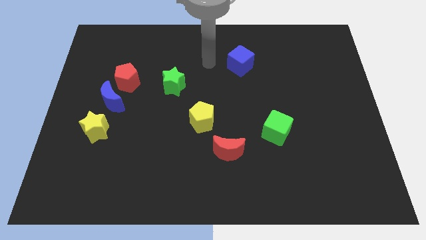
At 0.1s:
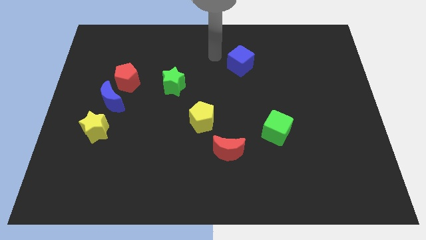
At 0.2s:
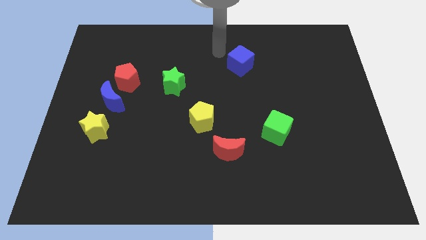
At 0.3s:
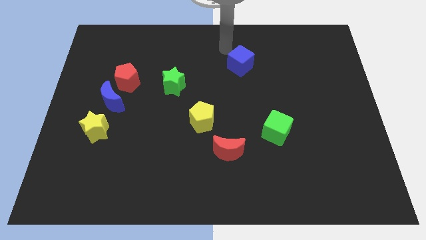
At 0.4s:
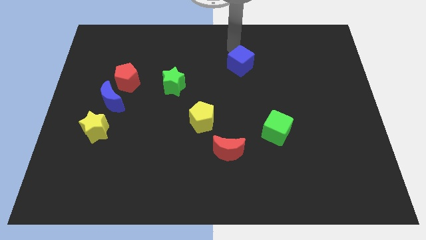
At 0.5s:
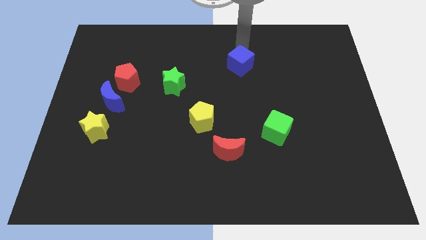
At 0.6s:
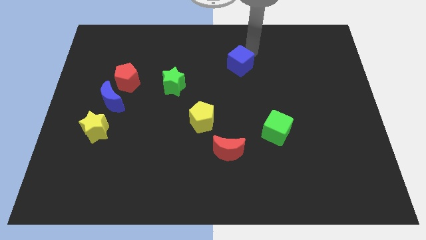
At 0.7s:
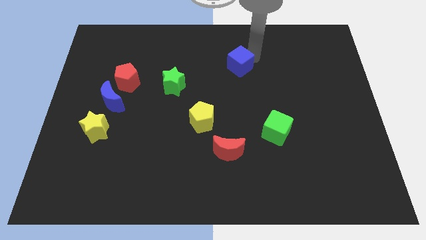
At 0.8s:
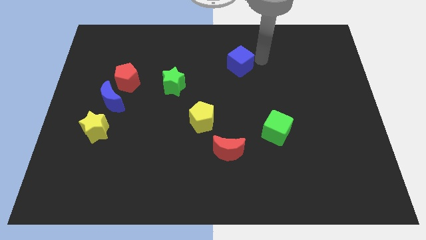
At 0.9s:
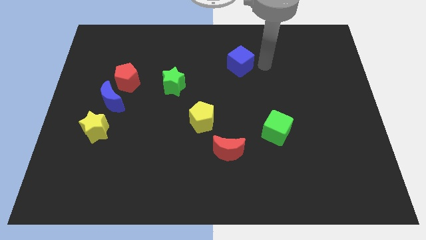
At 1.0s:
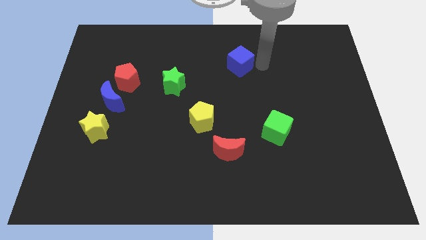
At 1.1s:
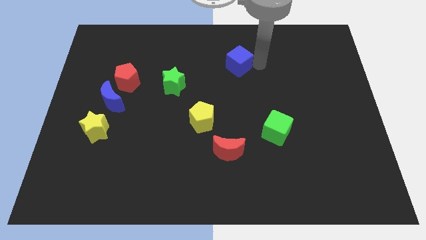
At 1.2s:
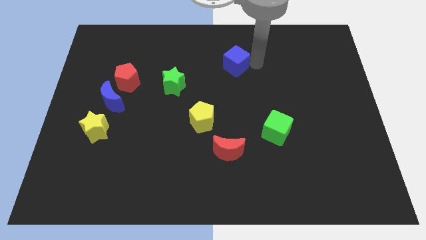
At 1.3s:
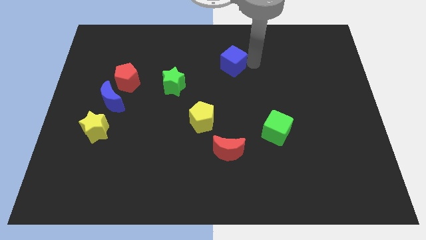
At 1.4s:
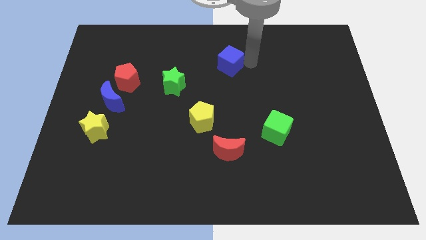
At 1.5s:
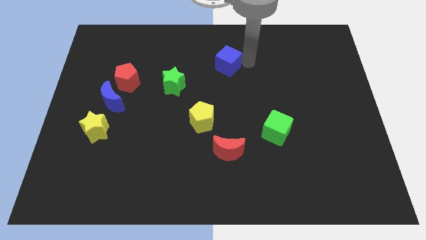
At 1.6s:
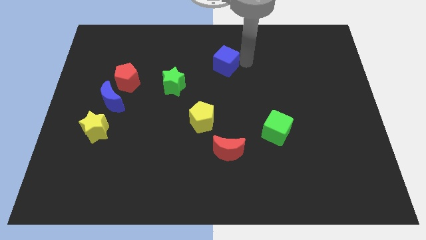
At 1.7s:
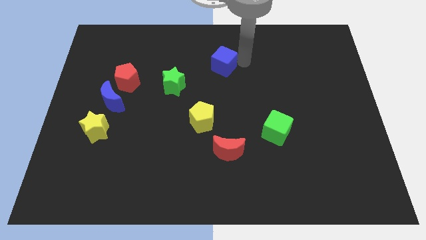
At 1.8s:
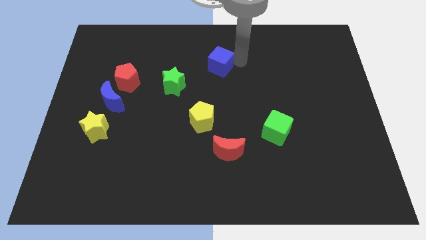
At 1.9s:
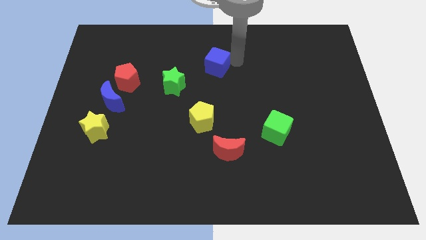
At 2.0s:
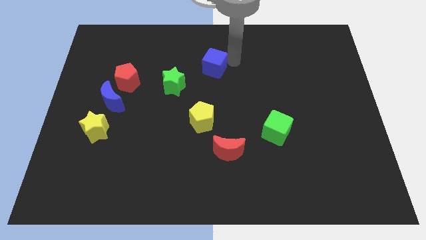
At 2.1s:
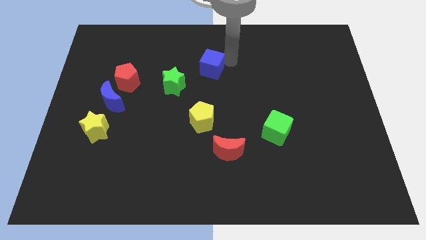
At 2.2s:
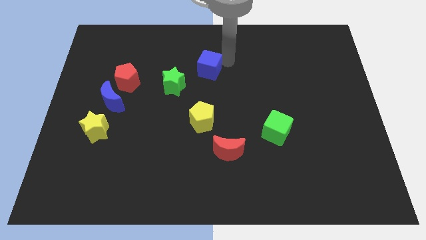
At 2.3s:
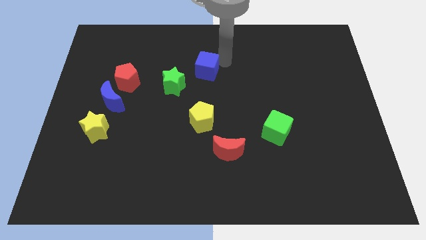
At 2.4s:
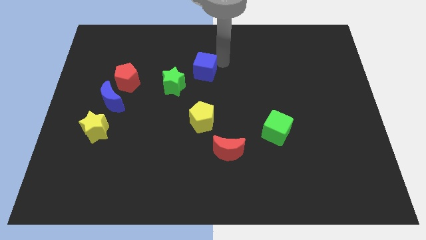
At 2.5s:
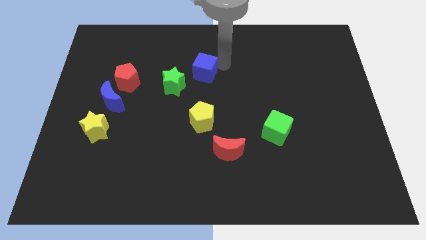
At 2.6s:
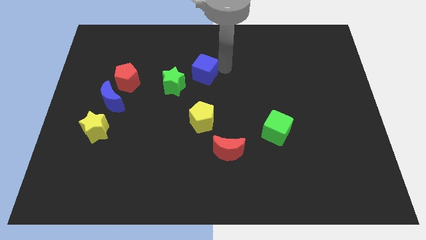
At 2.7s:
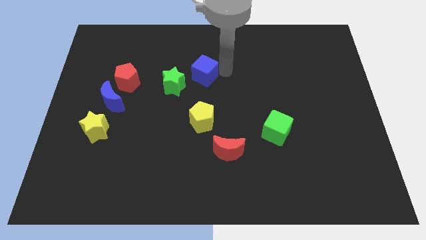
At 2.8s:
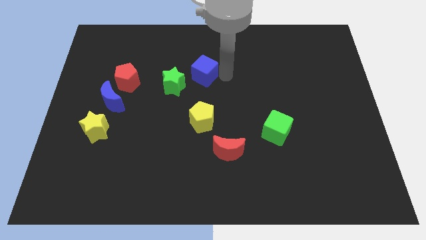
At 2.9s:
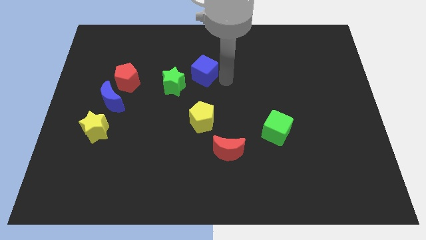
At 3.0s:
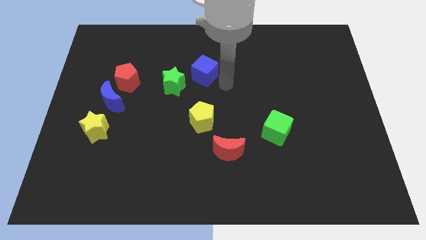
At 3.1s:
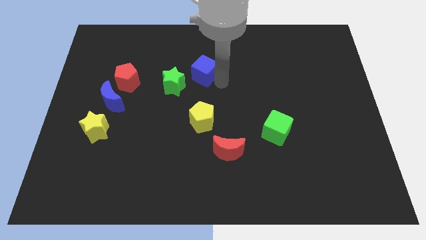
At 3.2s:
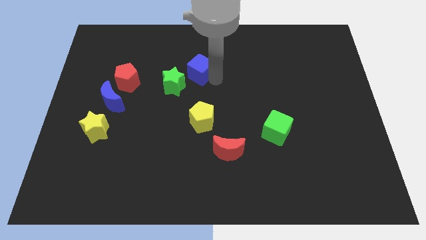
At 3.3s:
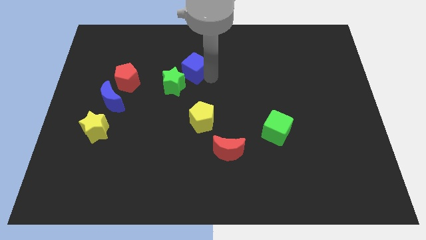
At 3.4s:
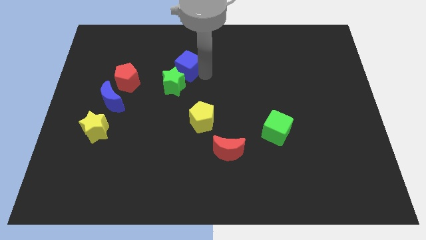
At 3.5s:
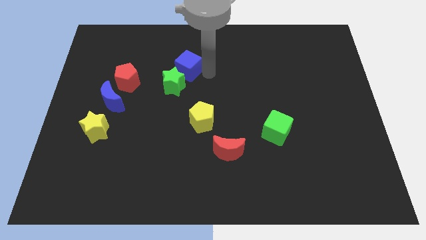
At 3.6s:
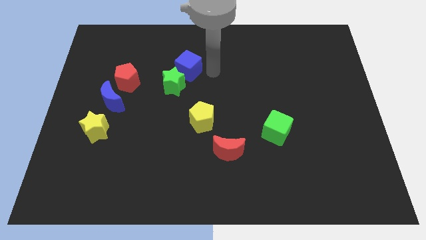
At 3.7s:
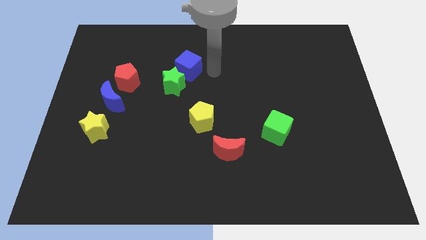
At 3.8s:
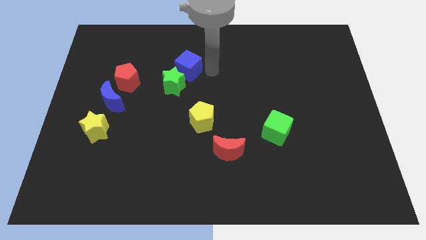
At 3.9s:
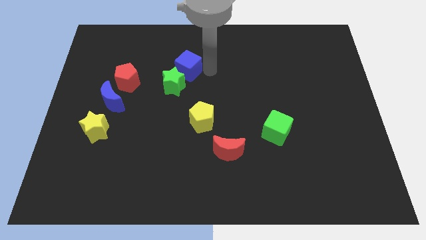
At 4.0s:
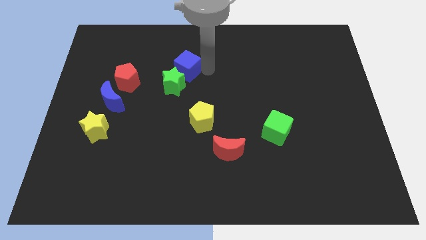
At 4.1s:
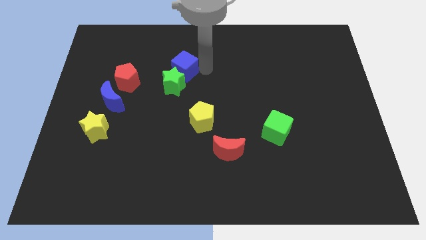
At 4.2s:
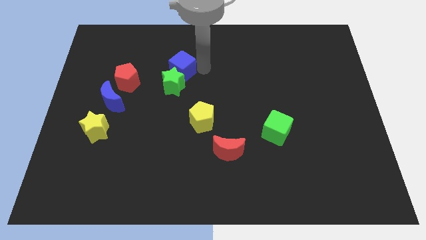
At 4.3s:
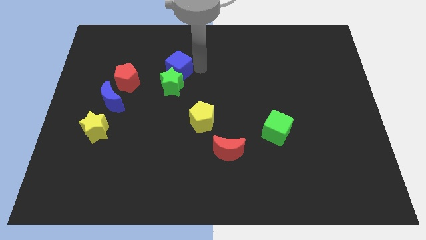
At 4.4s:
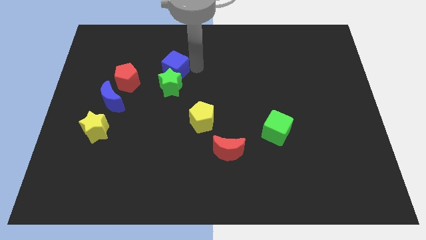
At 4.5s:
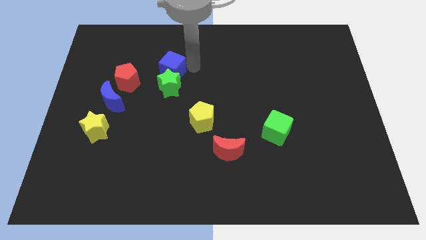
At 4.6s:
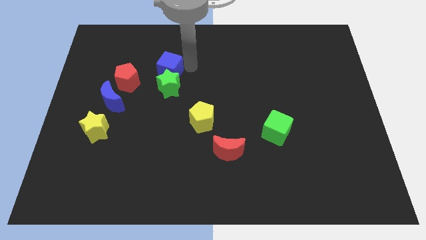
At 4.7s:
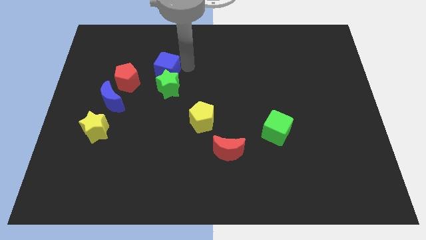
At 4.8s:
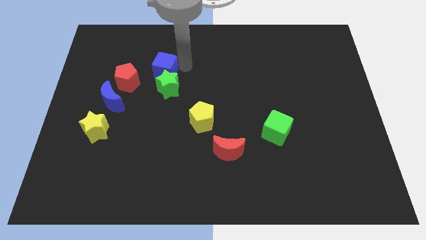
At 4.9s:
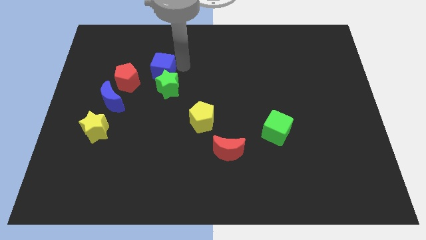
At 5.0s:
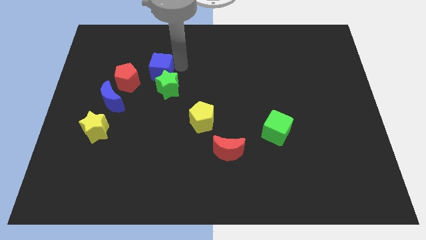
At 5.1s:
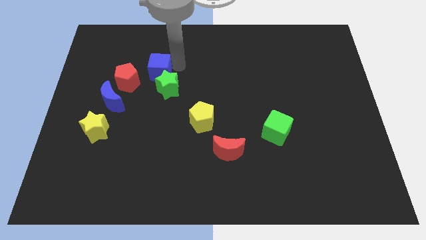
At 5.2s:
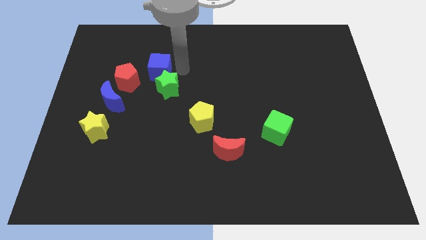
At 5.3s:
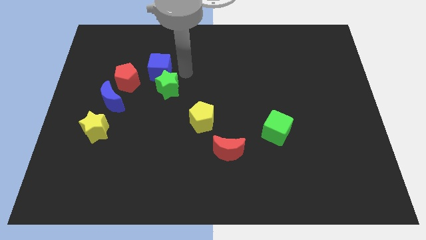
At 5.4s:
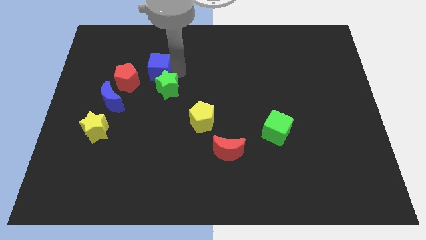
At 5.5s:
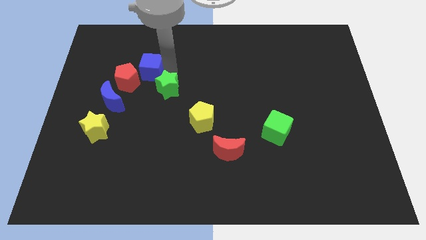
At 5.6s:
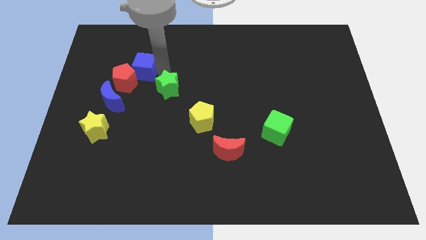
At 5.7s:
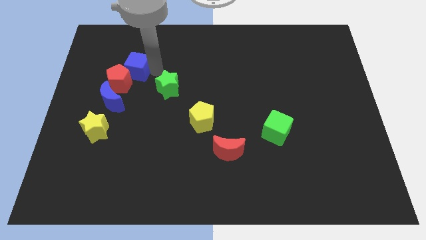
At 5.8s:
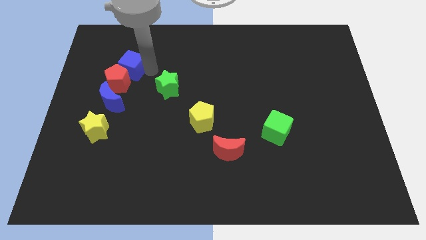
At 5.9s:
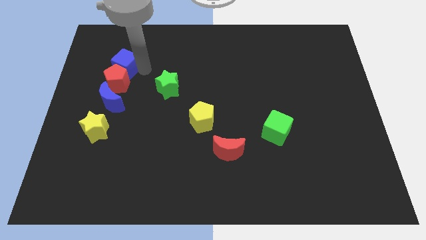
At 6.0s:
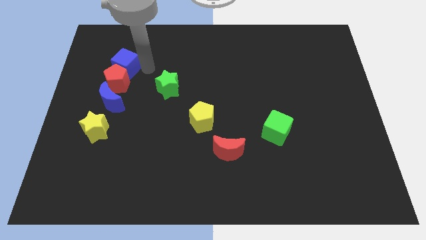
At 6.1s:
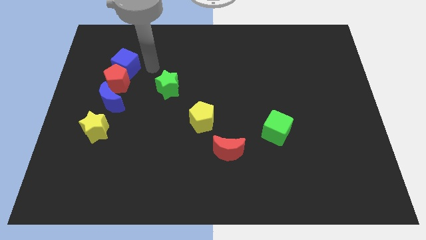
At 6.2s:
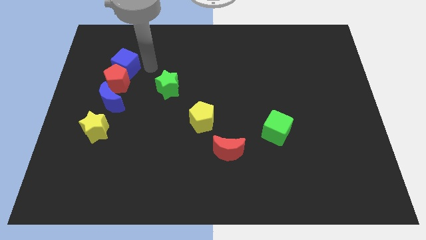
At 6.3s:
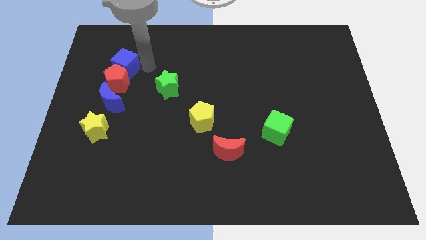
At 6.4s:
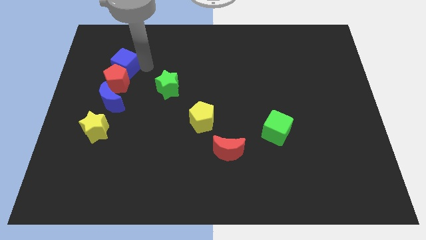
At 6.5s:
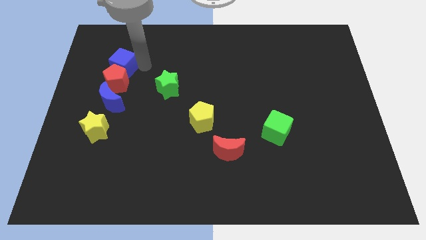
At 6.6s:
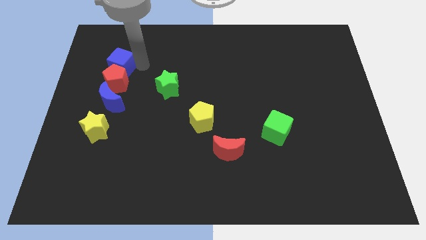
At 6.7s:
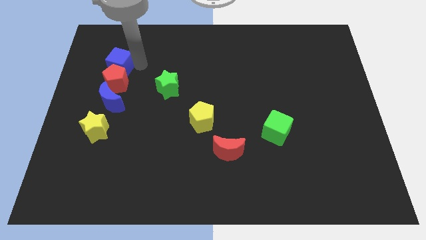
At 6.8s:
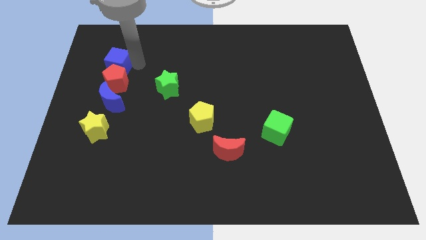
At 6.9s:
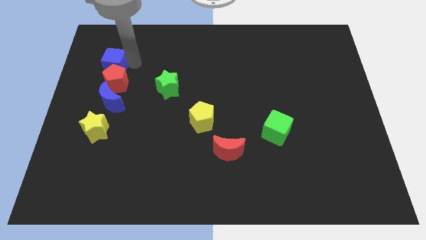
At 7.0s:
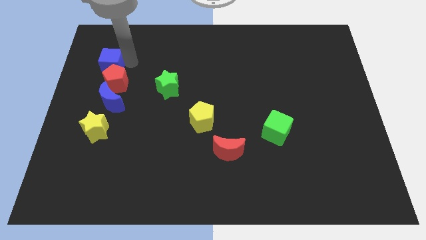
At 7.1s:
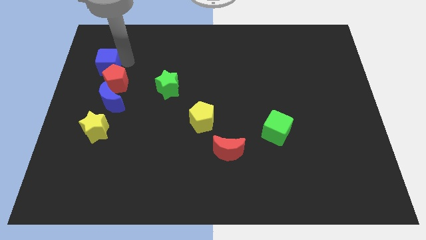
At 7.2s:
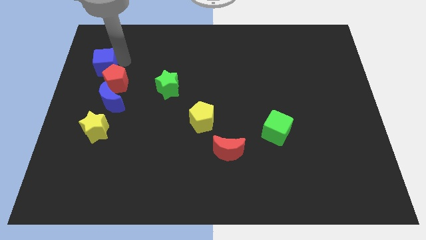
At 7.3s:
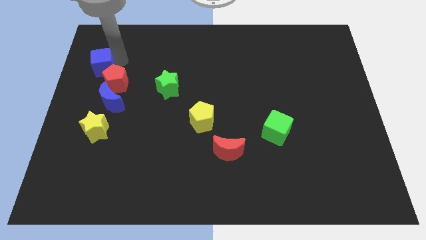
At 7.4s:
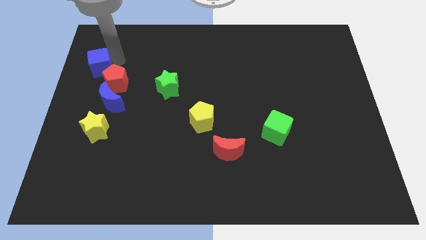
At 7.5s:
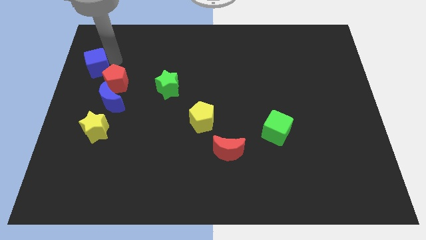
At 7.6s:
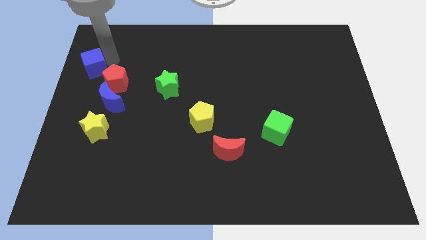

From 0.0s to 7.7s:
slide the blue cube to the center left
